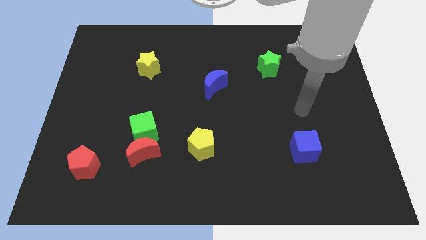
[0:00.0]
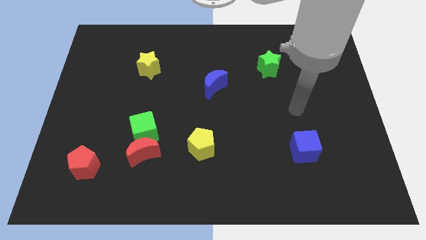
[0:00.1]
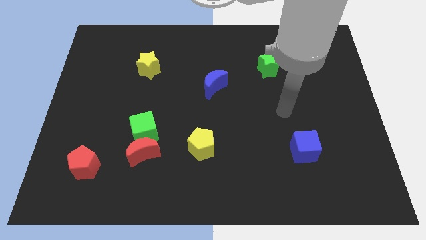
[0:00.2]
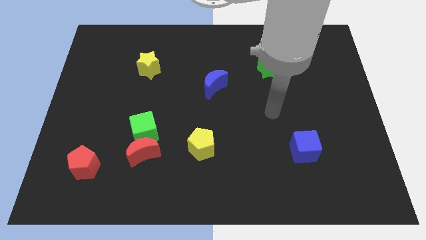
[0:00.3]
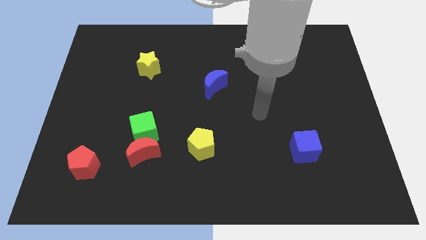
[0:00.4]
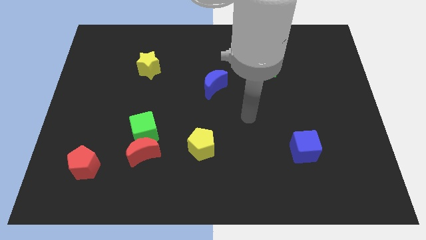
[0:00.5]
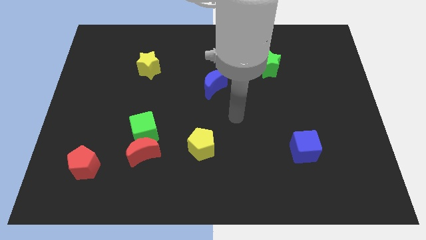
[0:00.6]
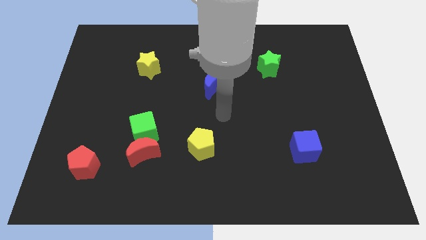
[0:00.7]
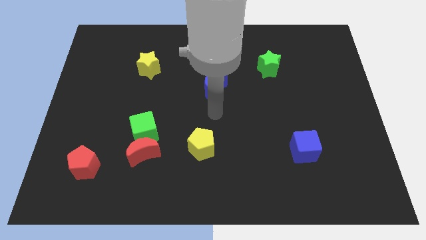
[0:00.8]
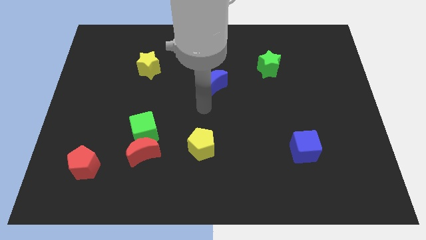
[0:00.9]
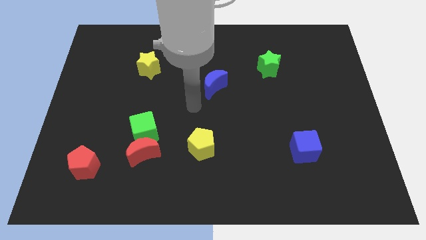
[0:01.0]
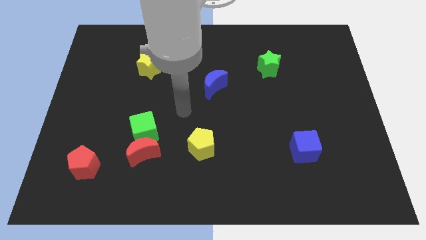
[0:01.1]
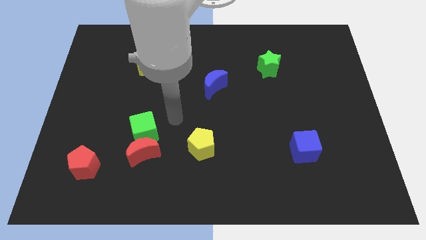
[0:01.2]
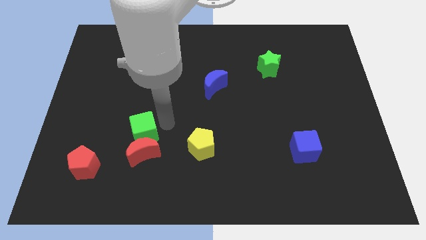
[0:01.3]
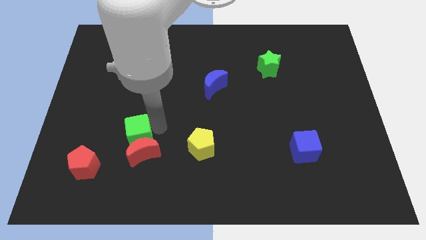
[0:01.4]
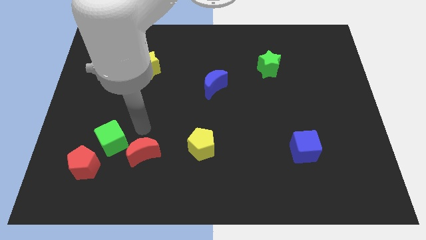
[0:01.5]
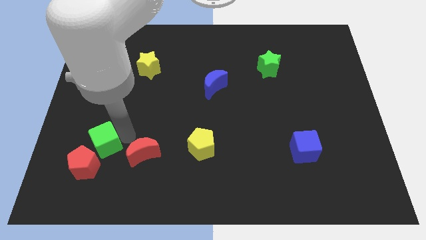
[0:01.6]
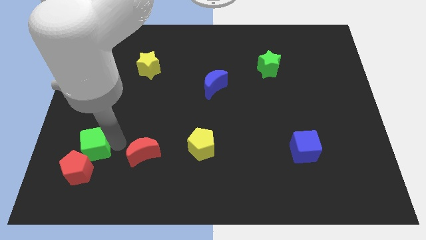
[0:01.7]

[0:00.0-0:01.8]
separate the red moon from the green cube

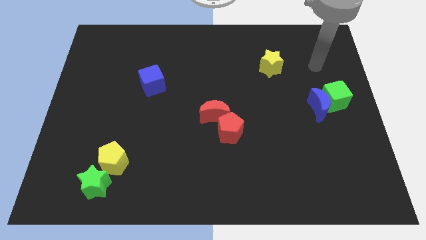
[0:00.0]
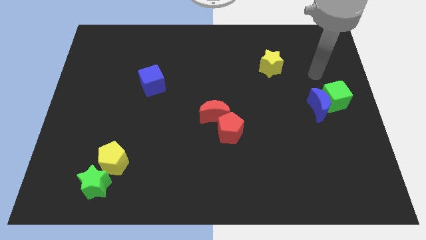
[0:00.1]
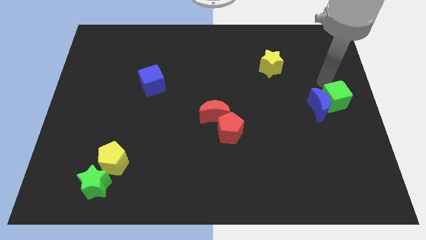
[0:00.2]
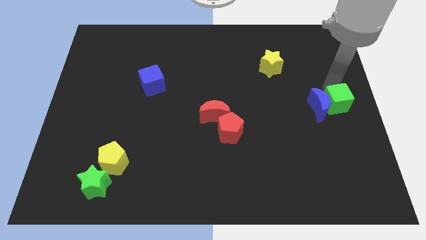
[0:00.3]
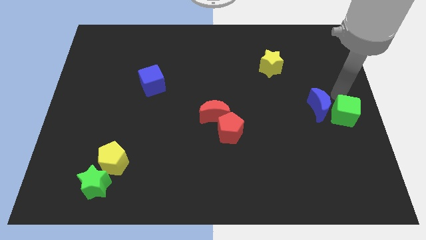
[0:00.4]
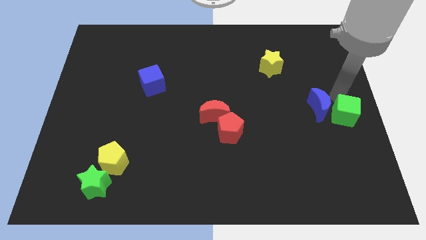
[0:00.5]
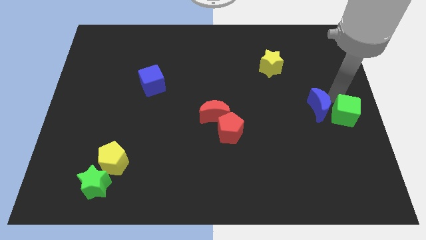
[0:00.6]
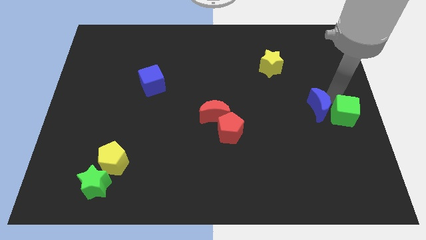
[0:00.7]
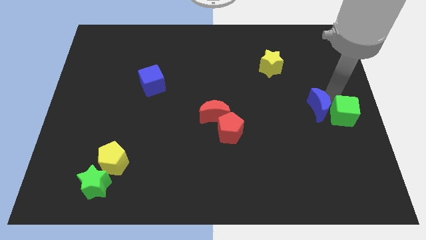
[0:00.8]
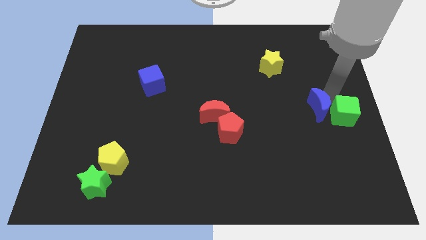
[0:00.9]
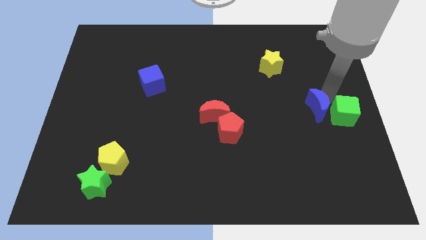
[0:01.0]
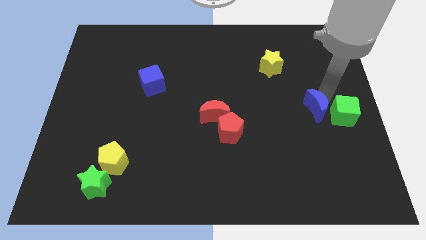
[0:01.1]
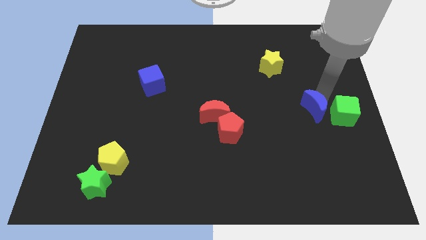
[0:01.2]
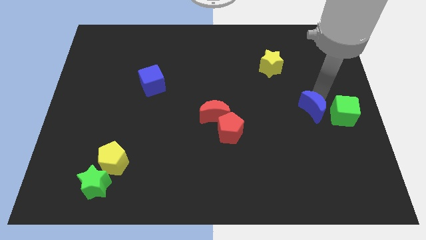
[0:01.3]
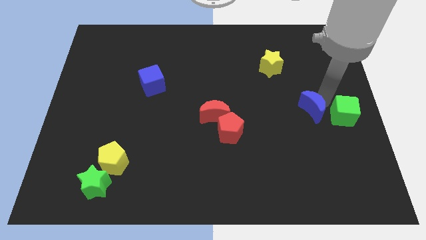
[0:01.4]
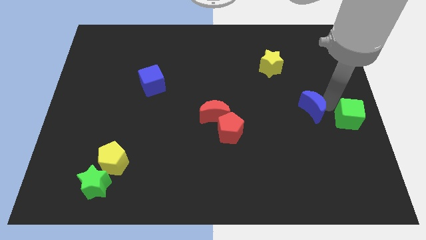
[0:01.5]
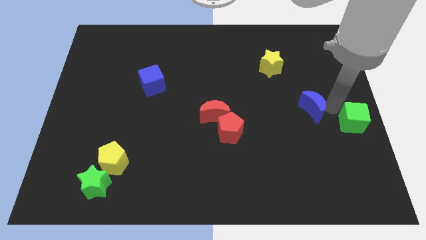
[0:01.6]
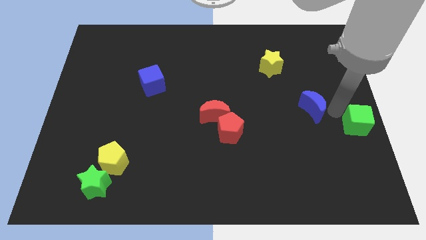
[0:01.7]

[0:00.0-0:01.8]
move the blue moon away from the green cube

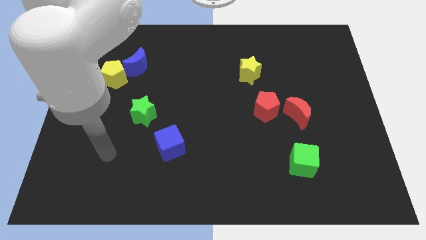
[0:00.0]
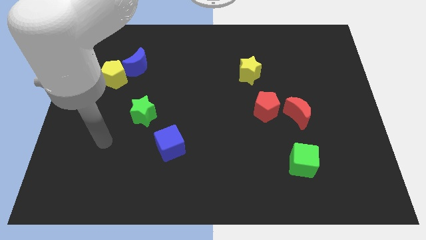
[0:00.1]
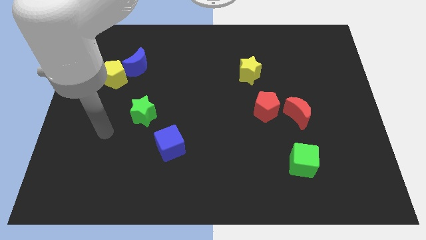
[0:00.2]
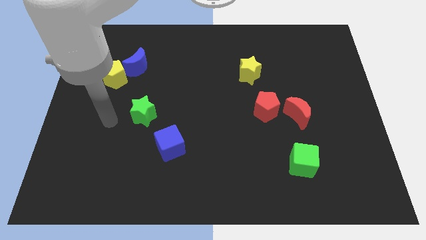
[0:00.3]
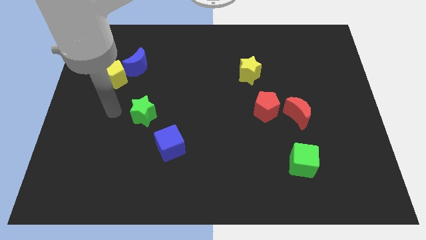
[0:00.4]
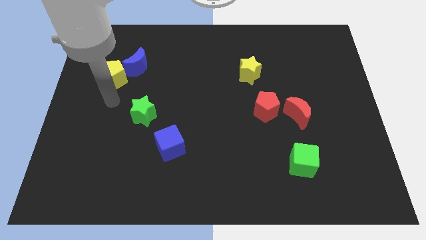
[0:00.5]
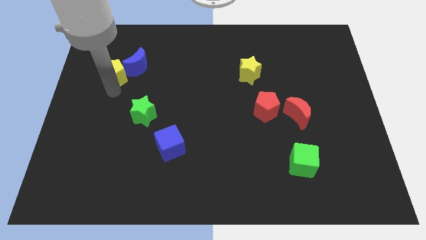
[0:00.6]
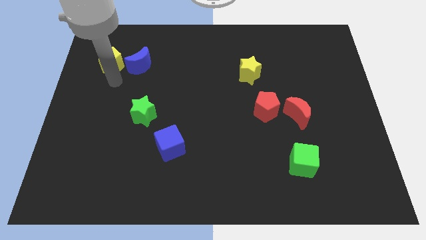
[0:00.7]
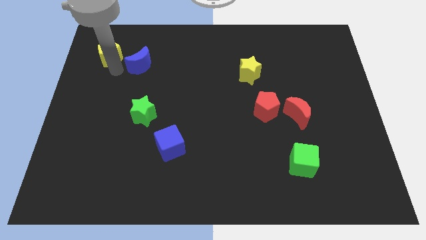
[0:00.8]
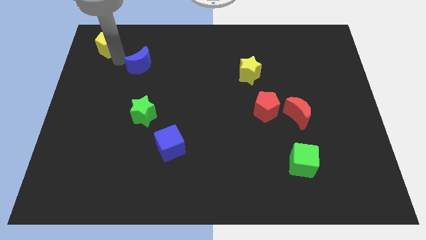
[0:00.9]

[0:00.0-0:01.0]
pull the blue moon apart from the yellow pentagon

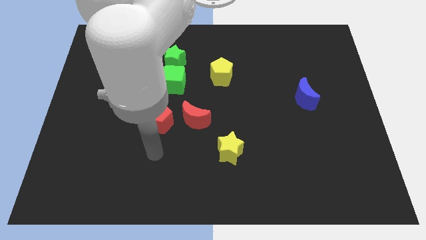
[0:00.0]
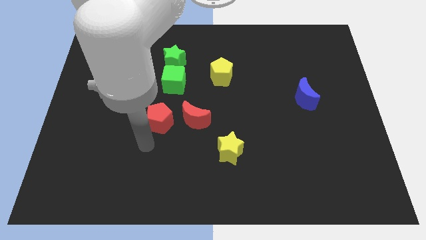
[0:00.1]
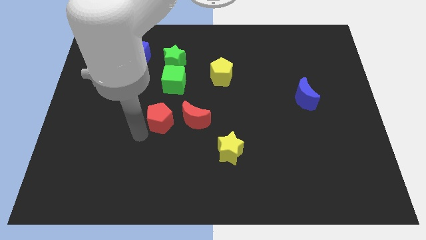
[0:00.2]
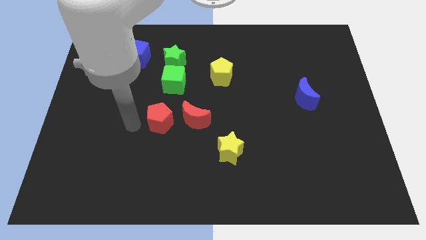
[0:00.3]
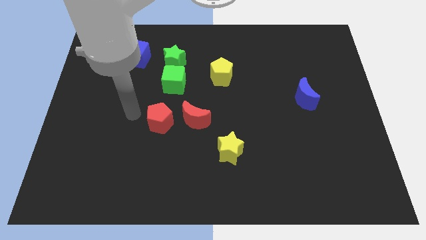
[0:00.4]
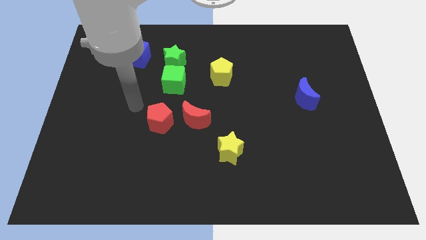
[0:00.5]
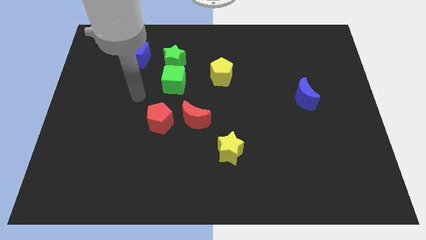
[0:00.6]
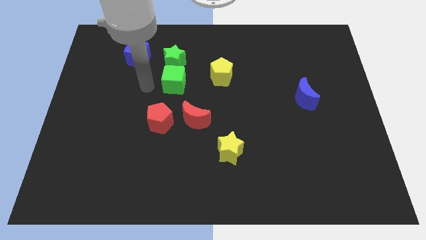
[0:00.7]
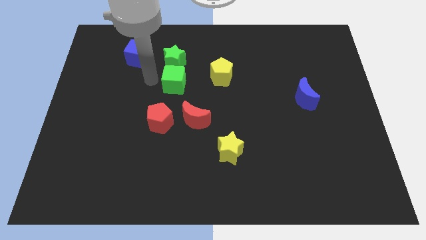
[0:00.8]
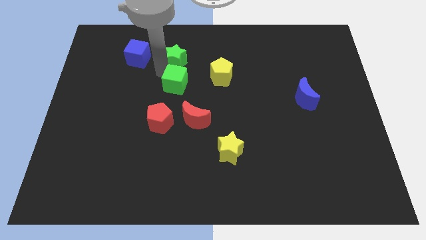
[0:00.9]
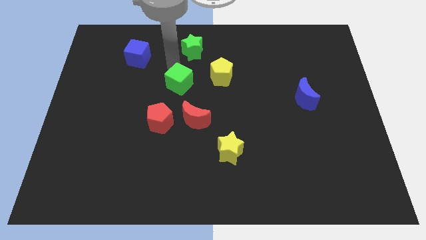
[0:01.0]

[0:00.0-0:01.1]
pull the green cube apart from the green star

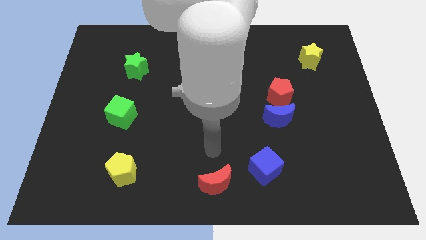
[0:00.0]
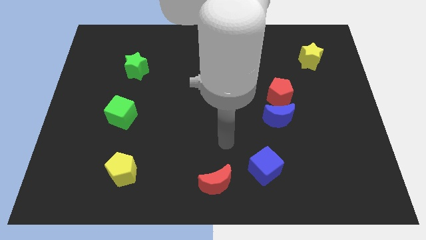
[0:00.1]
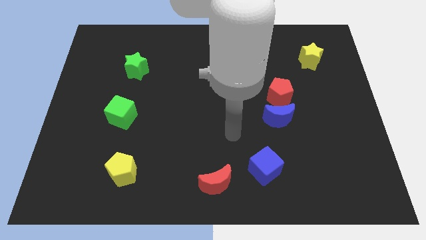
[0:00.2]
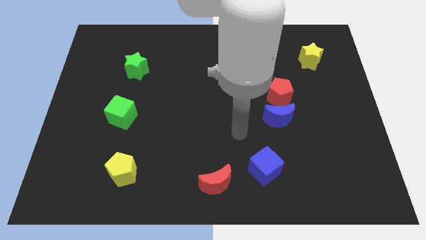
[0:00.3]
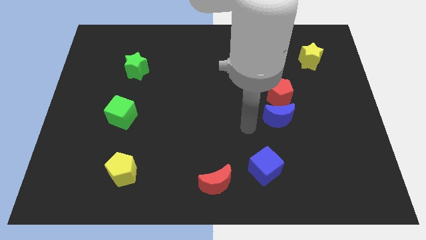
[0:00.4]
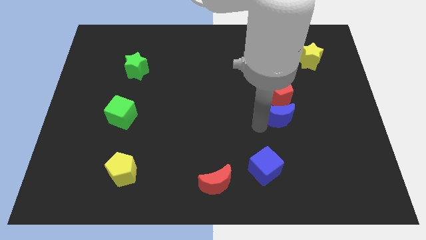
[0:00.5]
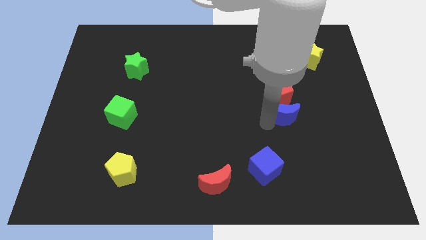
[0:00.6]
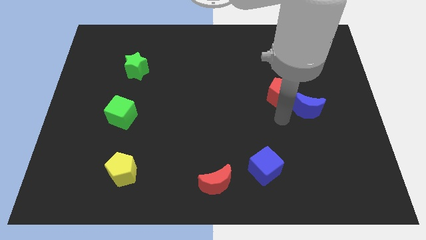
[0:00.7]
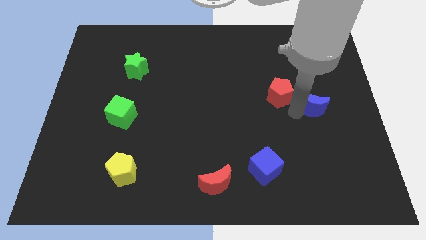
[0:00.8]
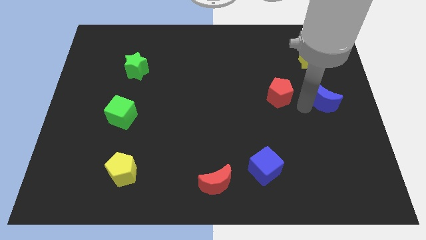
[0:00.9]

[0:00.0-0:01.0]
separate the red pentagon from the blue moon

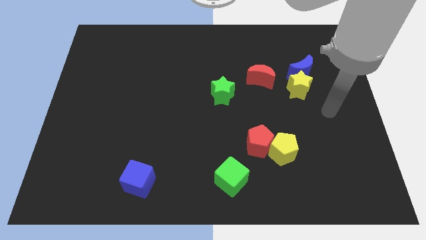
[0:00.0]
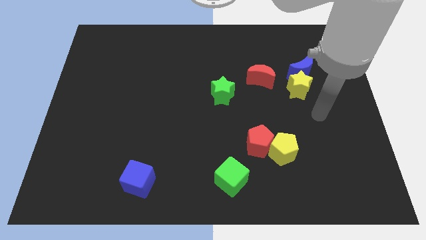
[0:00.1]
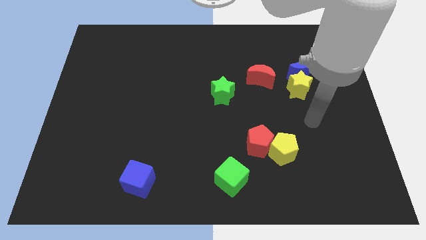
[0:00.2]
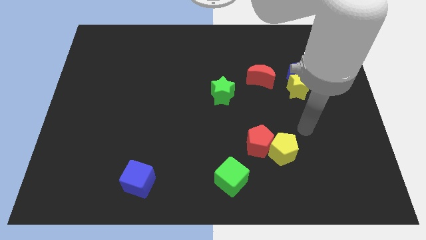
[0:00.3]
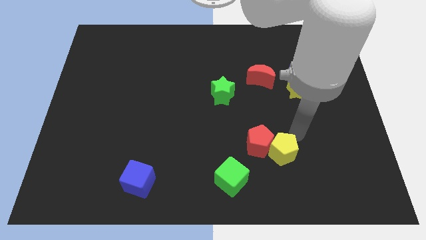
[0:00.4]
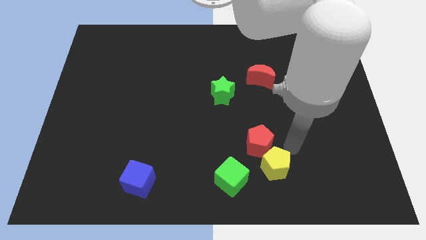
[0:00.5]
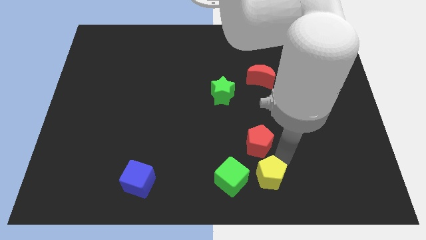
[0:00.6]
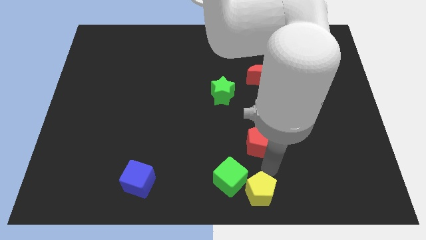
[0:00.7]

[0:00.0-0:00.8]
pull the red pentagon apart from the yellow pentagon

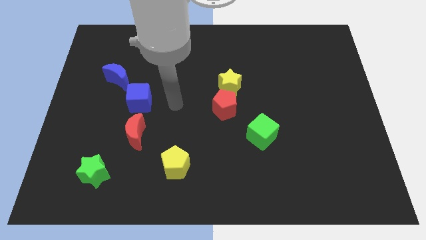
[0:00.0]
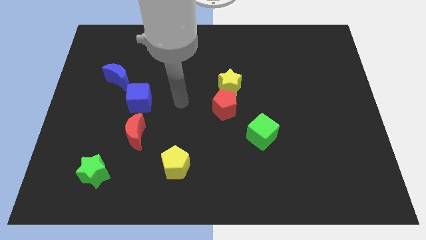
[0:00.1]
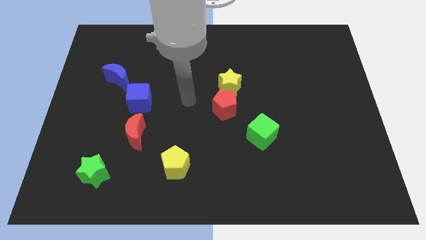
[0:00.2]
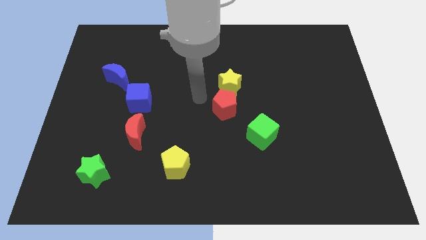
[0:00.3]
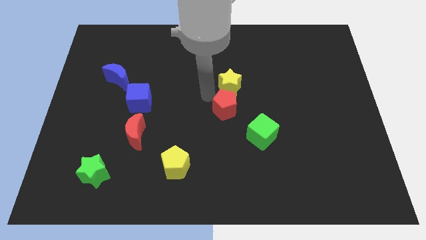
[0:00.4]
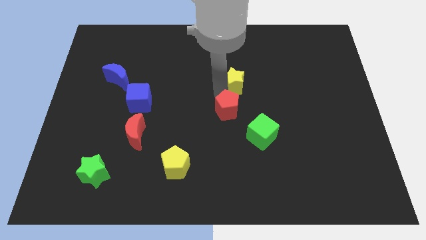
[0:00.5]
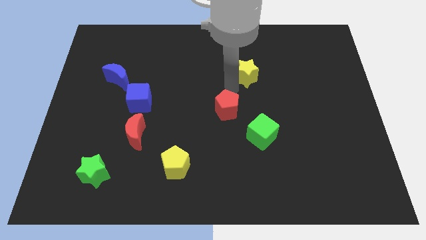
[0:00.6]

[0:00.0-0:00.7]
move the red pentagon away from the yellow star

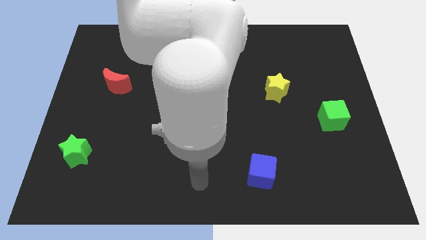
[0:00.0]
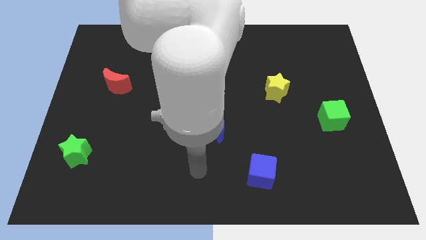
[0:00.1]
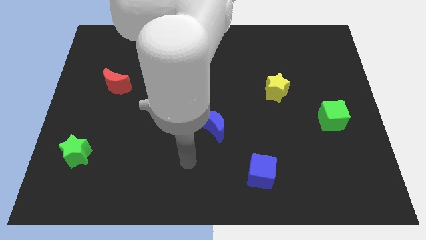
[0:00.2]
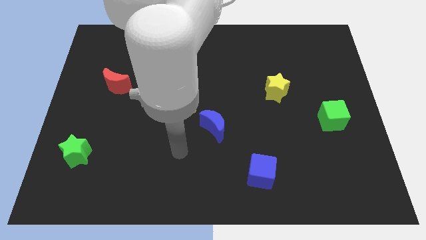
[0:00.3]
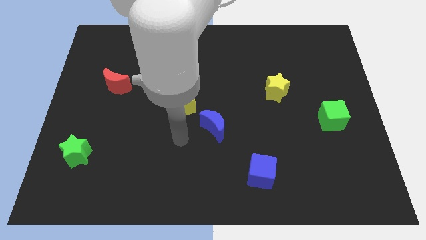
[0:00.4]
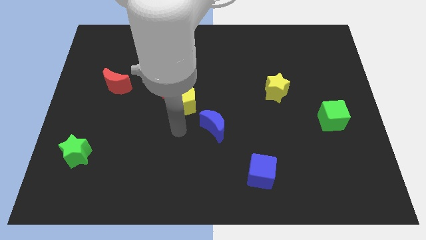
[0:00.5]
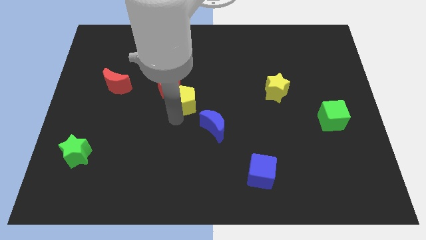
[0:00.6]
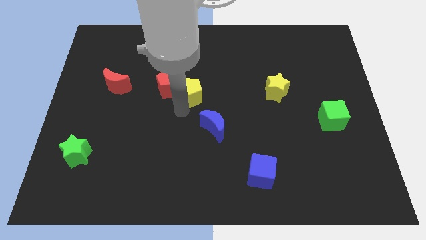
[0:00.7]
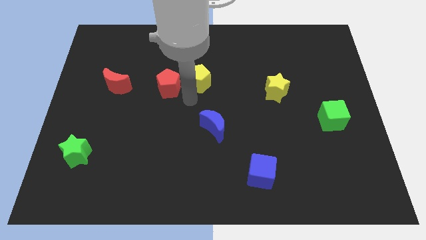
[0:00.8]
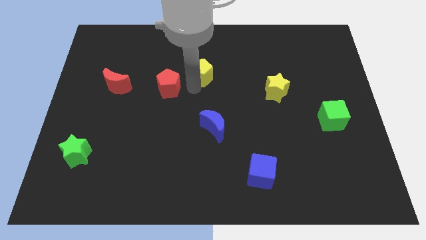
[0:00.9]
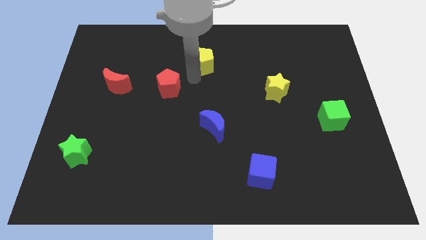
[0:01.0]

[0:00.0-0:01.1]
separate the red pentagon from the yellow pentagon
